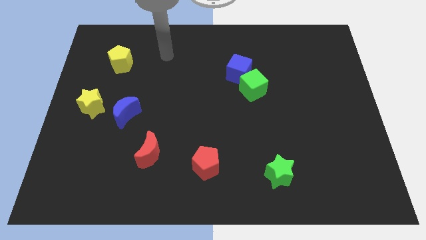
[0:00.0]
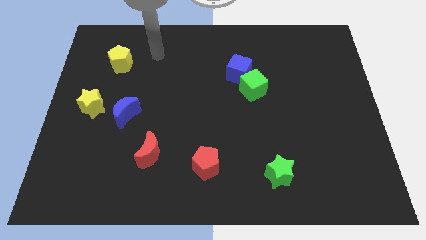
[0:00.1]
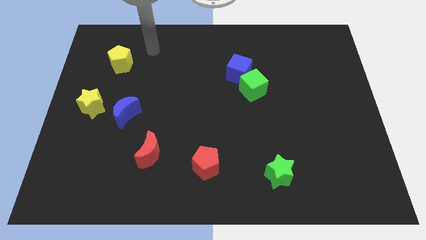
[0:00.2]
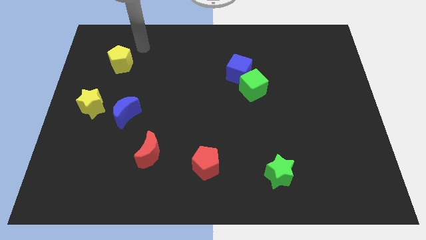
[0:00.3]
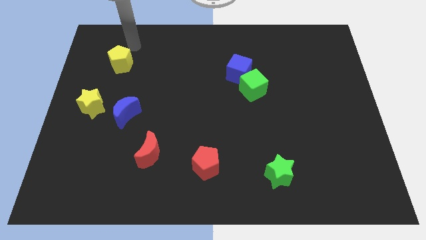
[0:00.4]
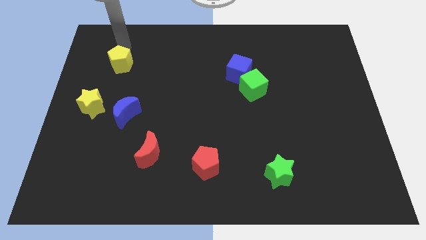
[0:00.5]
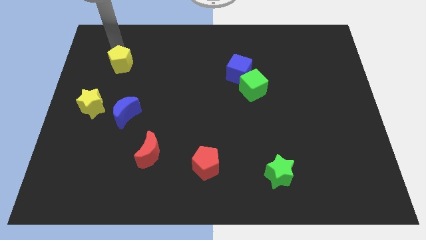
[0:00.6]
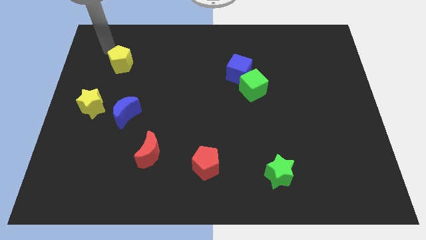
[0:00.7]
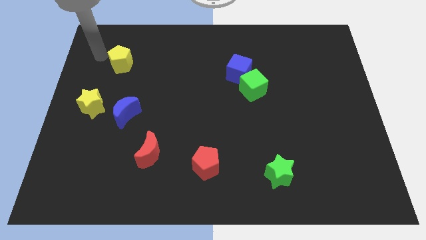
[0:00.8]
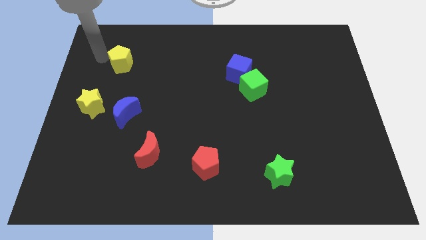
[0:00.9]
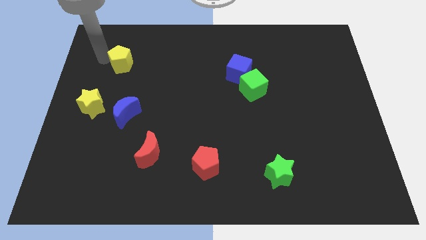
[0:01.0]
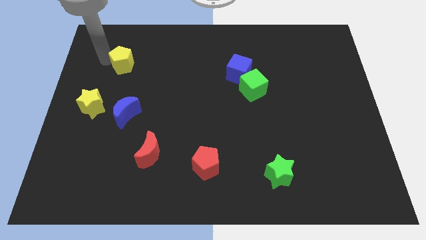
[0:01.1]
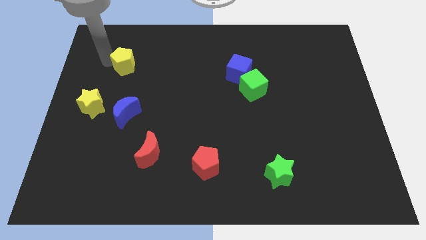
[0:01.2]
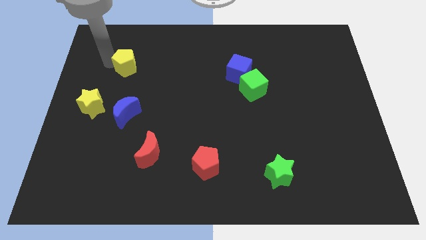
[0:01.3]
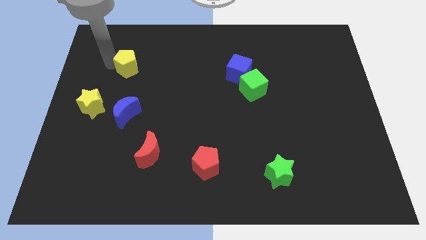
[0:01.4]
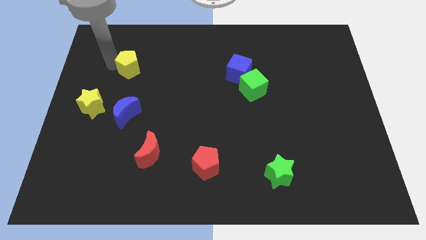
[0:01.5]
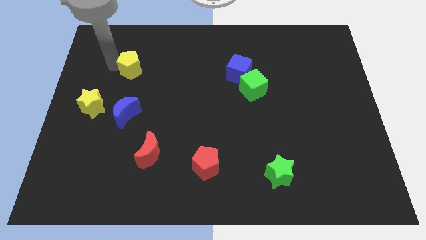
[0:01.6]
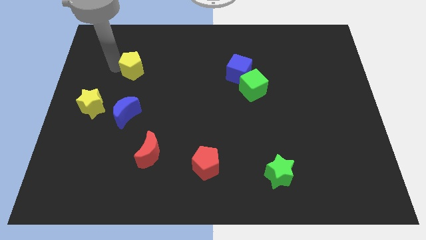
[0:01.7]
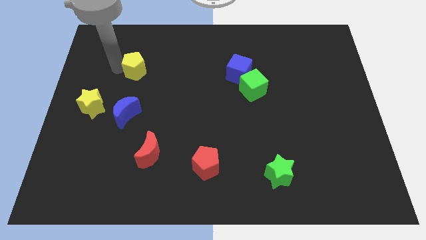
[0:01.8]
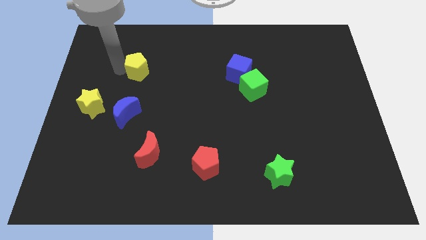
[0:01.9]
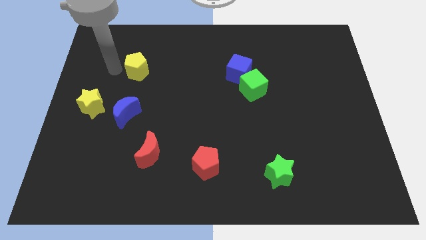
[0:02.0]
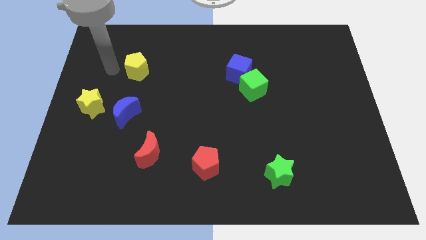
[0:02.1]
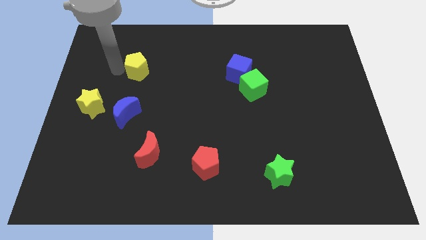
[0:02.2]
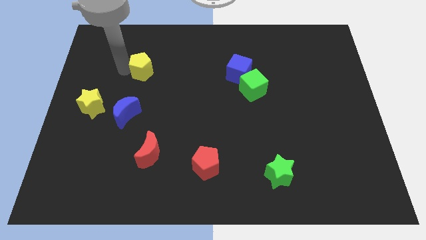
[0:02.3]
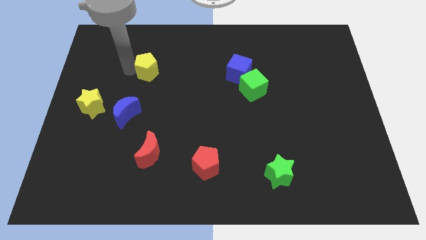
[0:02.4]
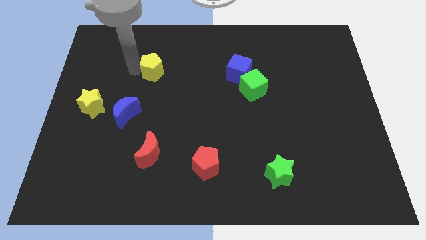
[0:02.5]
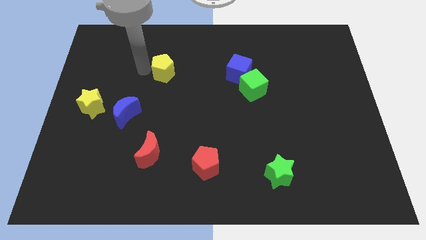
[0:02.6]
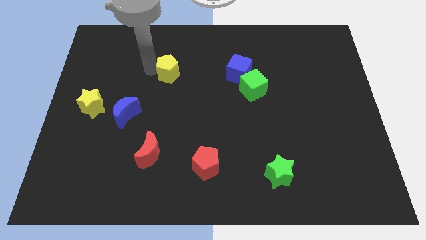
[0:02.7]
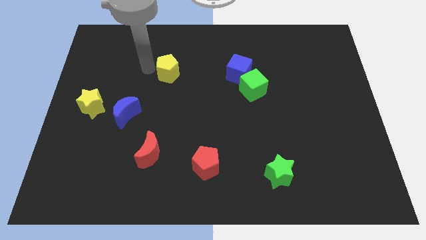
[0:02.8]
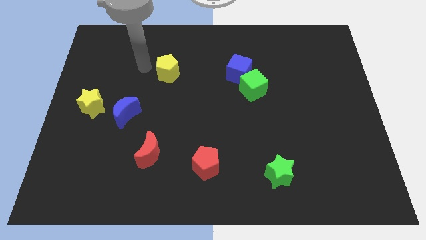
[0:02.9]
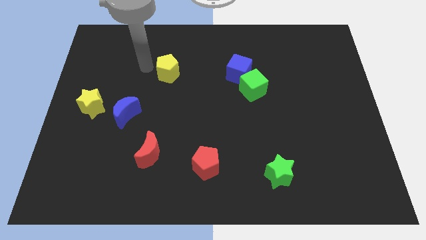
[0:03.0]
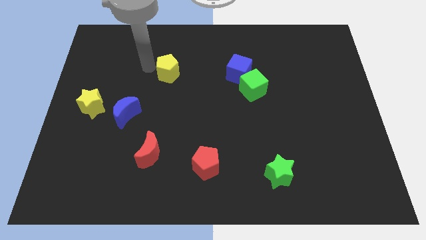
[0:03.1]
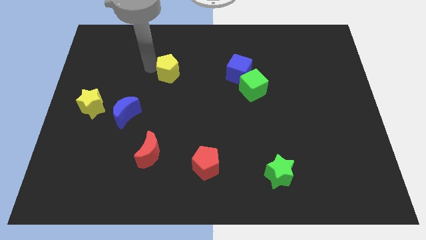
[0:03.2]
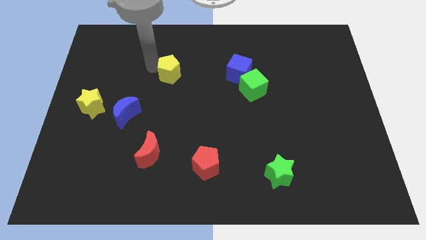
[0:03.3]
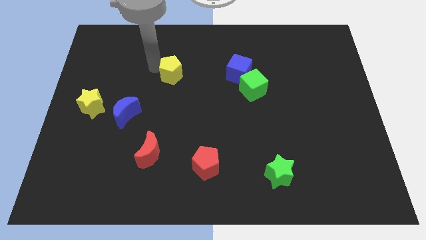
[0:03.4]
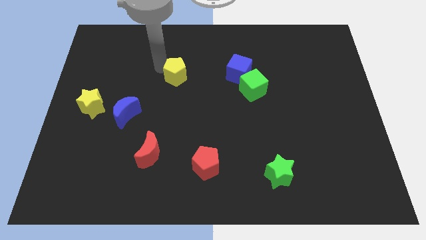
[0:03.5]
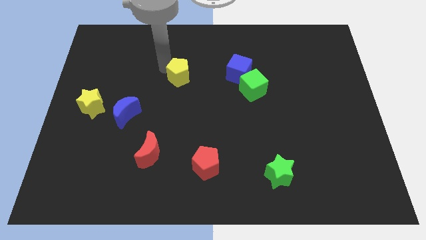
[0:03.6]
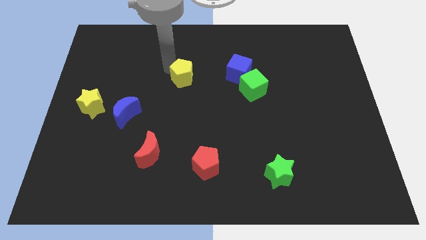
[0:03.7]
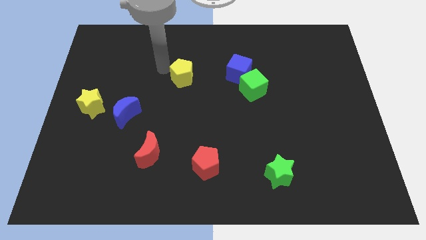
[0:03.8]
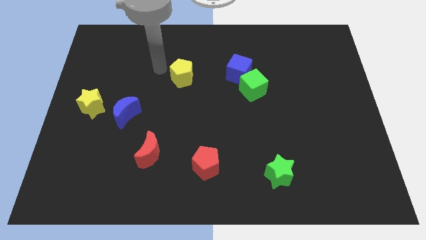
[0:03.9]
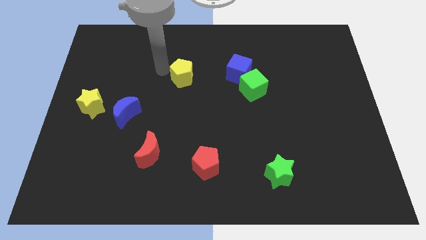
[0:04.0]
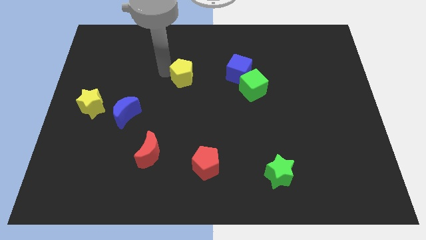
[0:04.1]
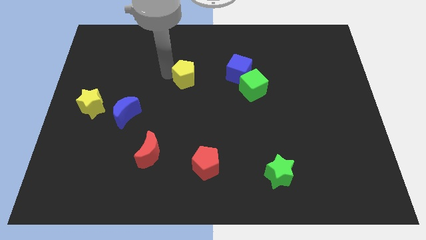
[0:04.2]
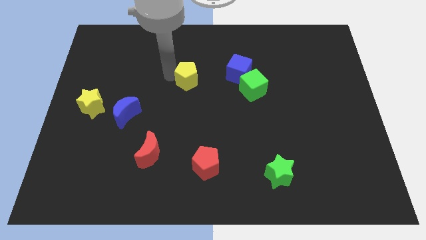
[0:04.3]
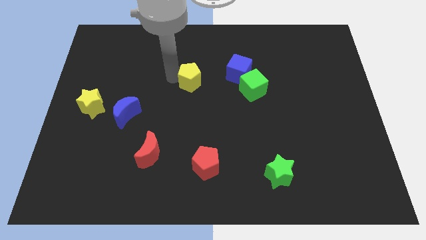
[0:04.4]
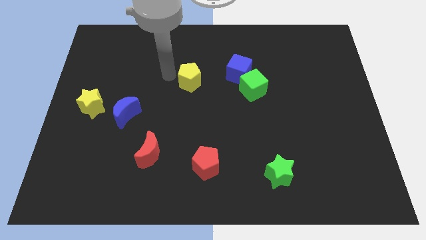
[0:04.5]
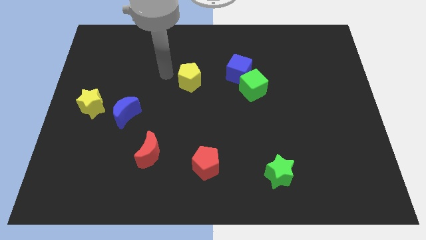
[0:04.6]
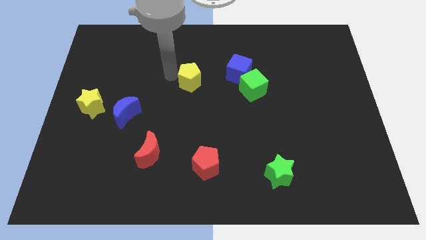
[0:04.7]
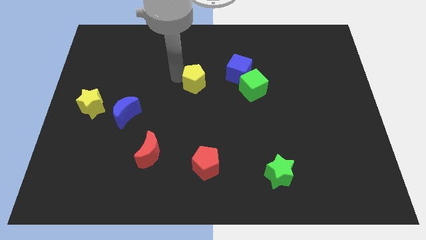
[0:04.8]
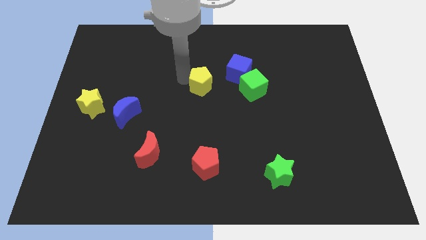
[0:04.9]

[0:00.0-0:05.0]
push the yellow pentagon to the bottom left side of the blue cube

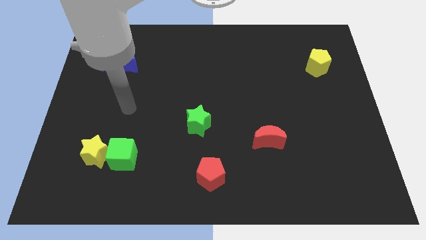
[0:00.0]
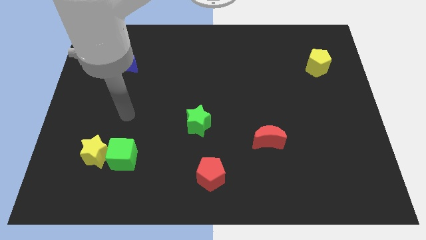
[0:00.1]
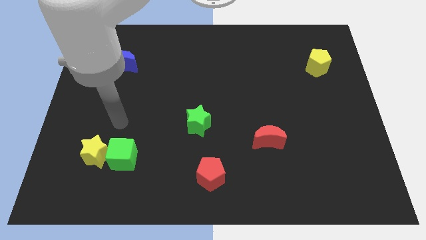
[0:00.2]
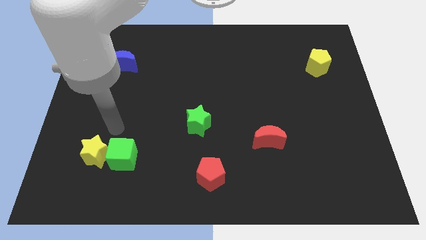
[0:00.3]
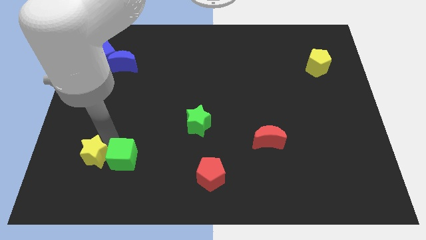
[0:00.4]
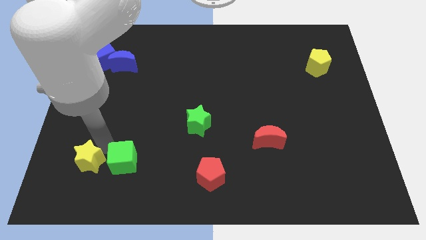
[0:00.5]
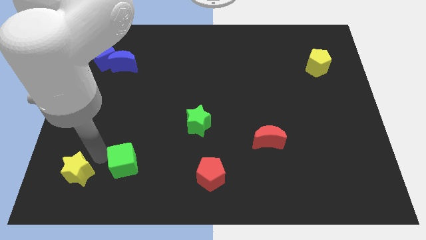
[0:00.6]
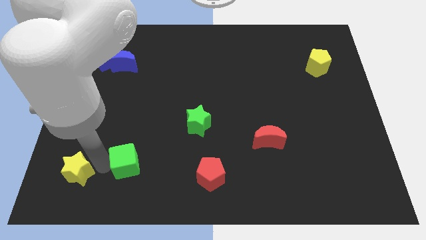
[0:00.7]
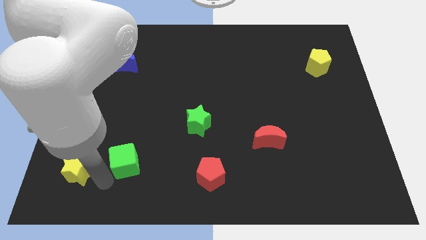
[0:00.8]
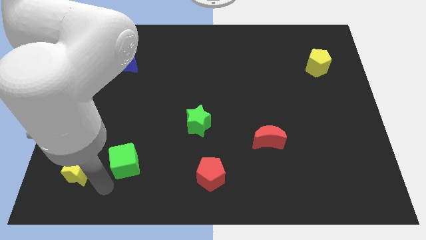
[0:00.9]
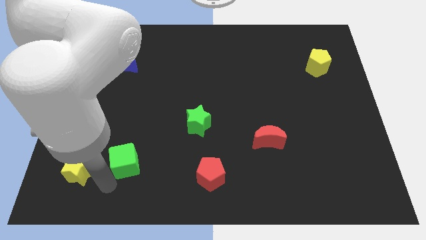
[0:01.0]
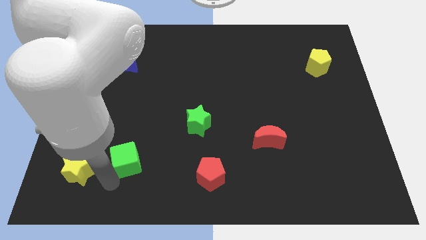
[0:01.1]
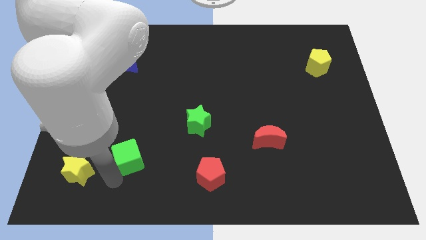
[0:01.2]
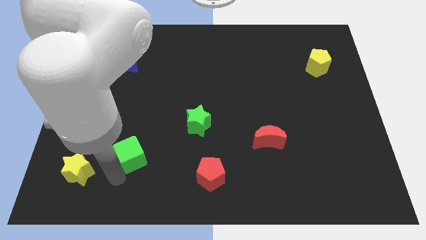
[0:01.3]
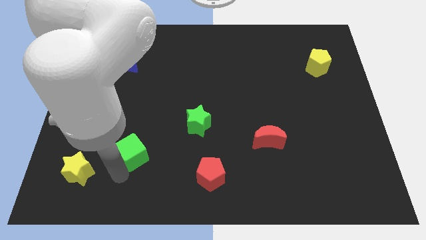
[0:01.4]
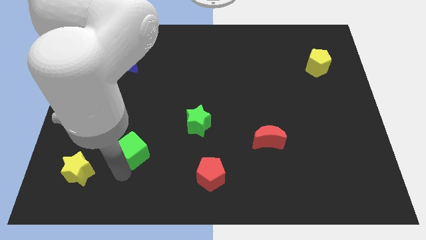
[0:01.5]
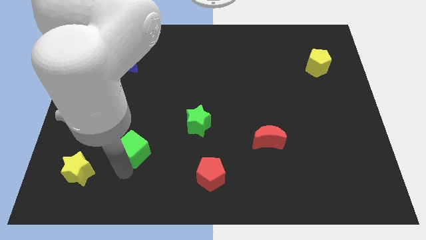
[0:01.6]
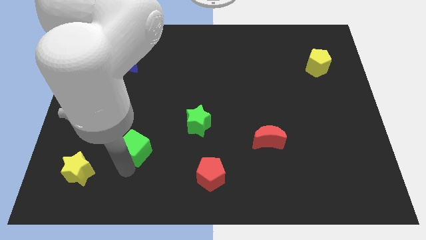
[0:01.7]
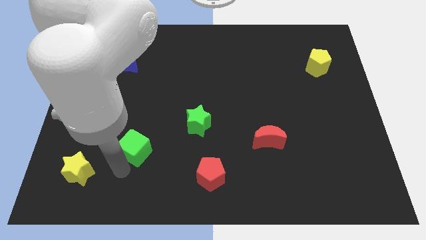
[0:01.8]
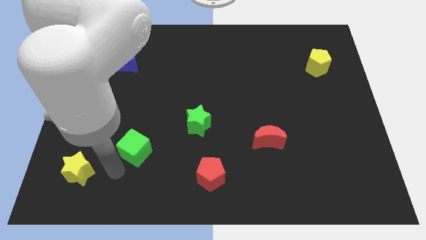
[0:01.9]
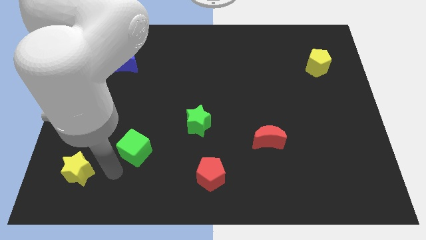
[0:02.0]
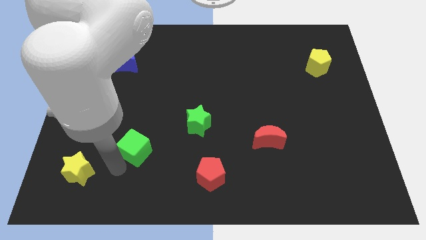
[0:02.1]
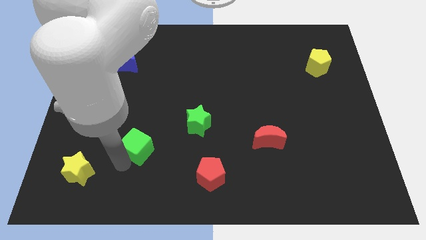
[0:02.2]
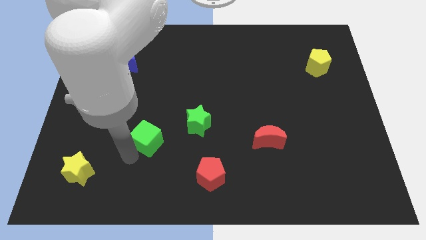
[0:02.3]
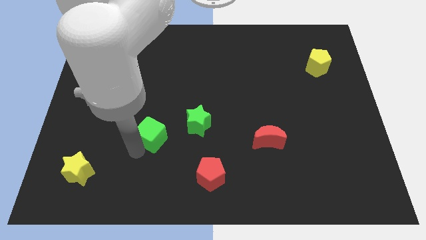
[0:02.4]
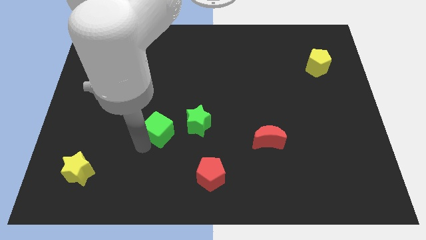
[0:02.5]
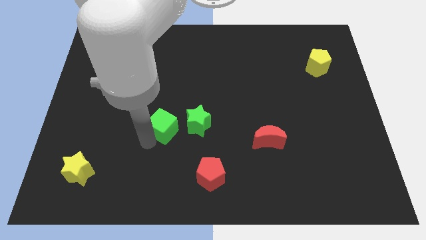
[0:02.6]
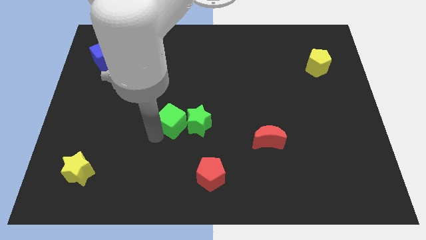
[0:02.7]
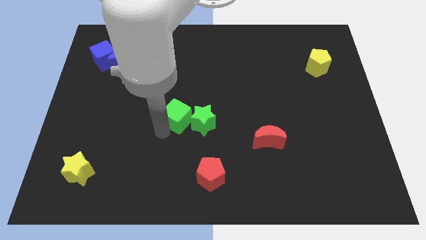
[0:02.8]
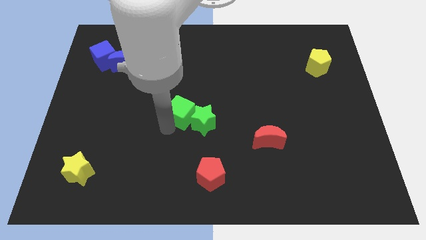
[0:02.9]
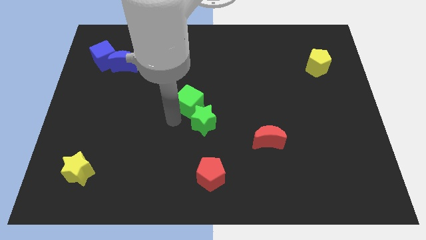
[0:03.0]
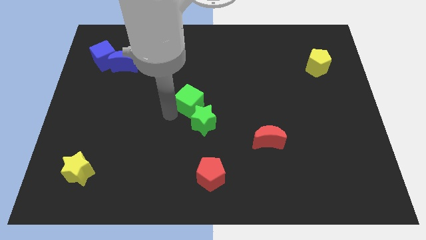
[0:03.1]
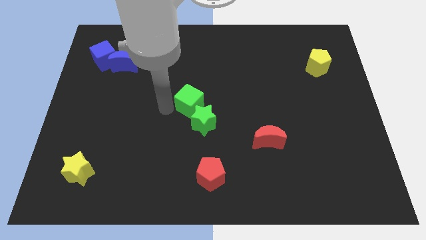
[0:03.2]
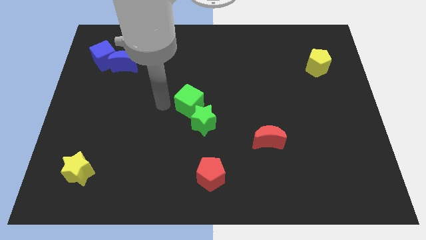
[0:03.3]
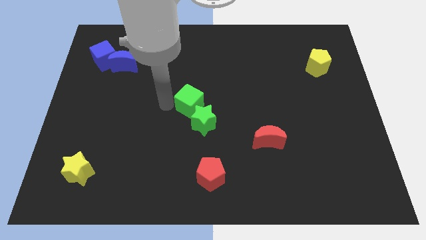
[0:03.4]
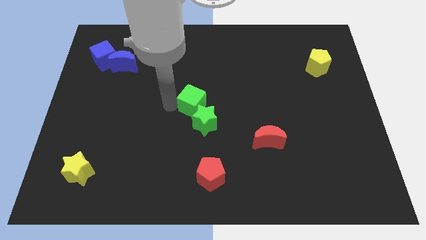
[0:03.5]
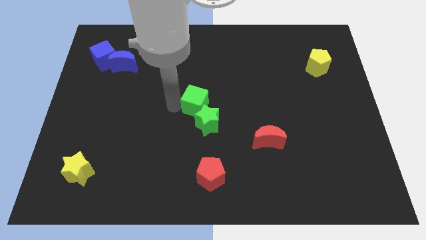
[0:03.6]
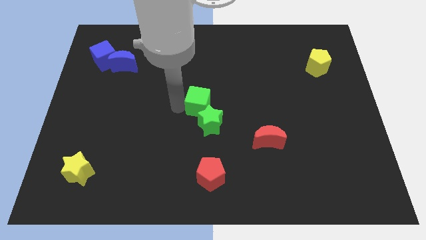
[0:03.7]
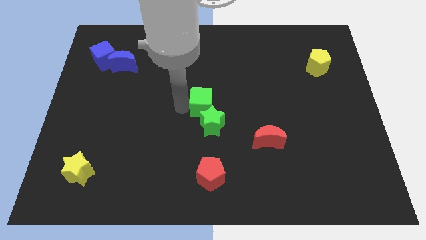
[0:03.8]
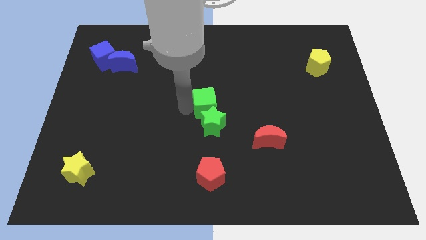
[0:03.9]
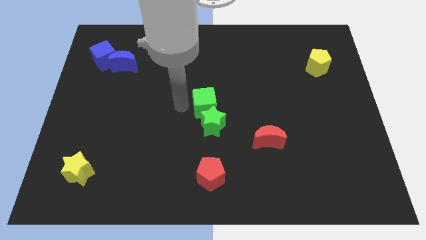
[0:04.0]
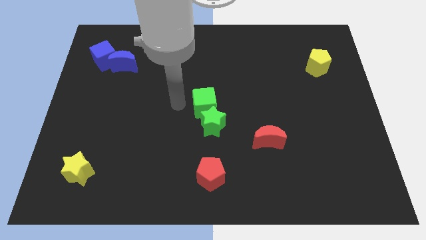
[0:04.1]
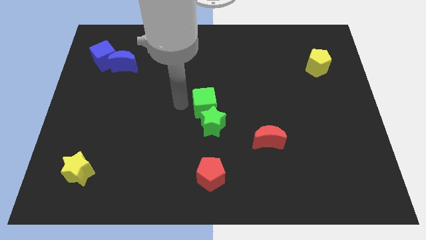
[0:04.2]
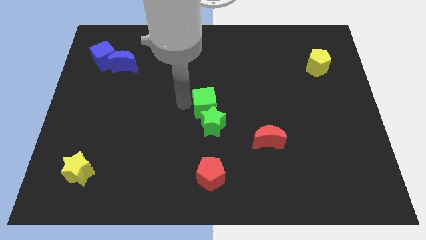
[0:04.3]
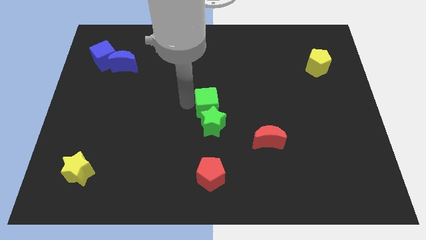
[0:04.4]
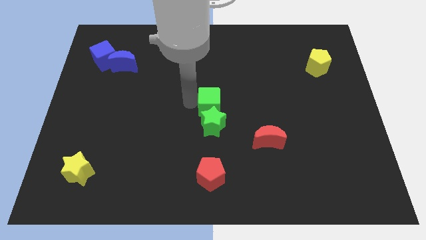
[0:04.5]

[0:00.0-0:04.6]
put the green cube to the top right of the green star
